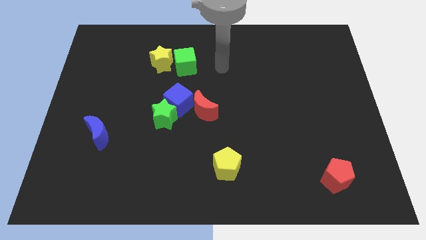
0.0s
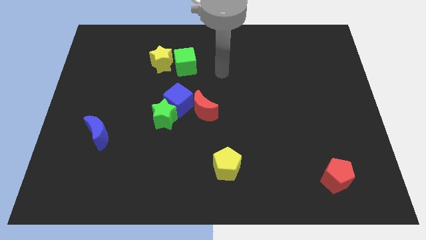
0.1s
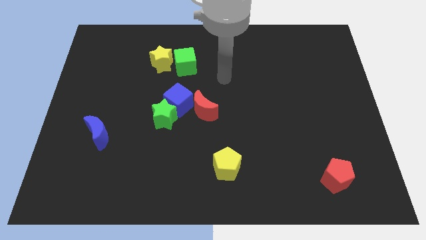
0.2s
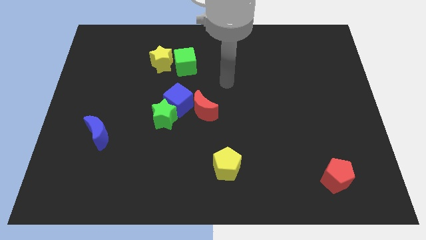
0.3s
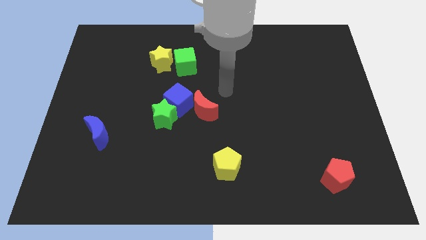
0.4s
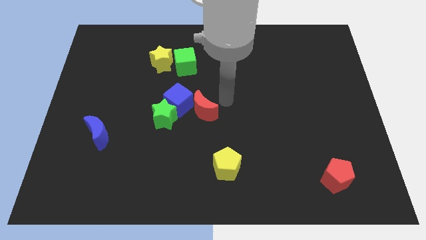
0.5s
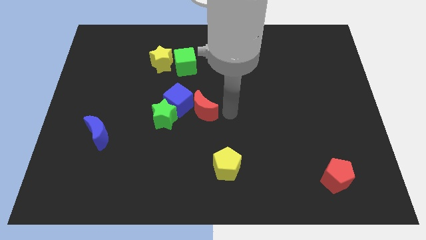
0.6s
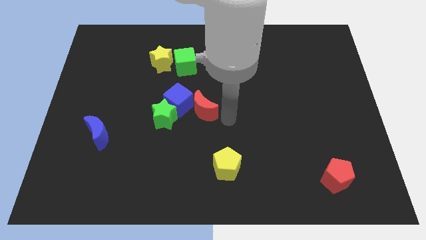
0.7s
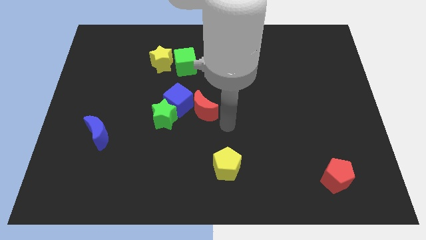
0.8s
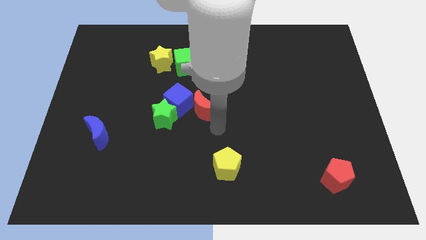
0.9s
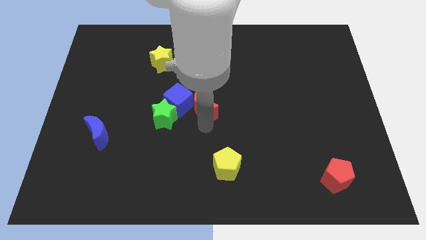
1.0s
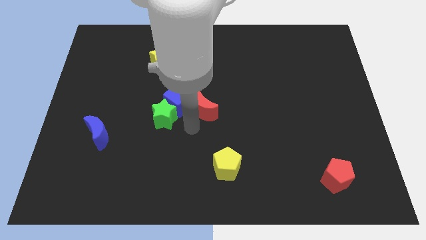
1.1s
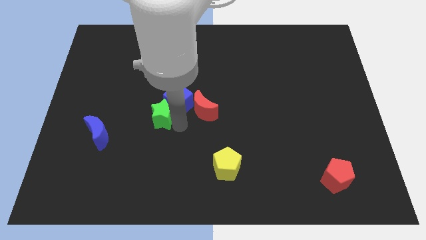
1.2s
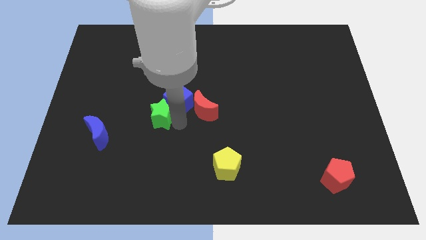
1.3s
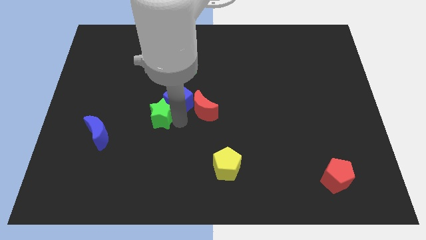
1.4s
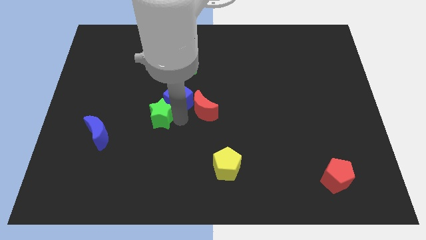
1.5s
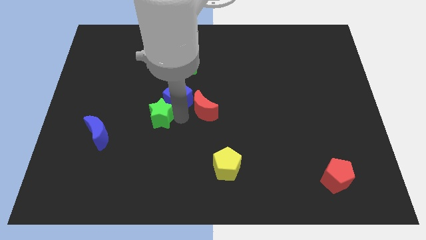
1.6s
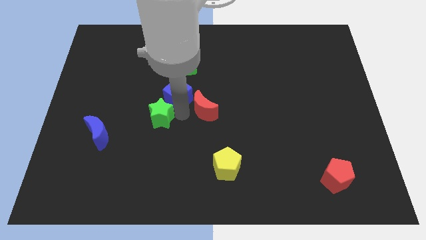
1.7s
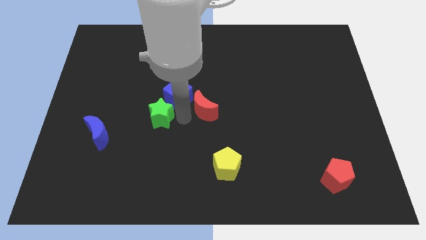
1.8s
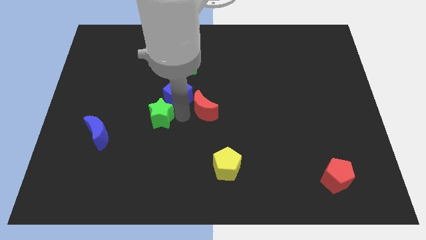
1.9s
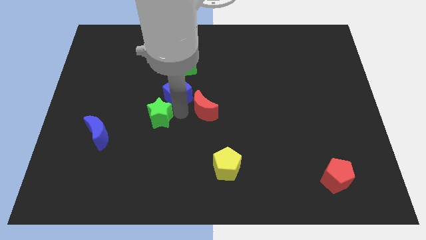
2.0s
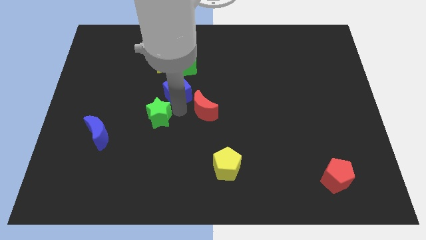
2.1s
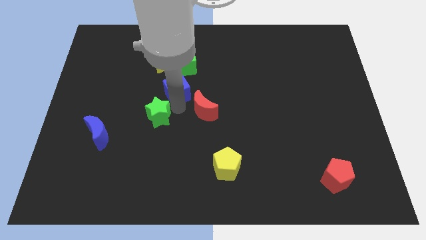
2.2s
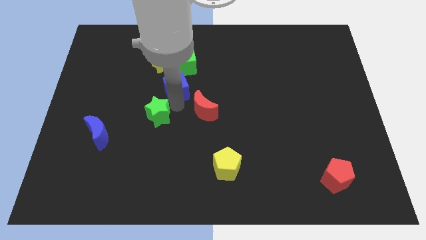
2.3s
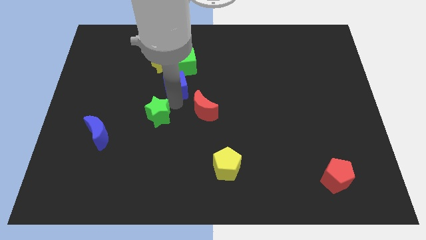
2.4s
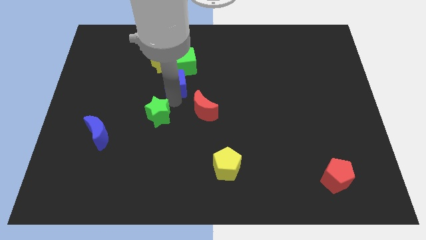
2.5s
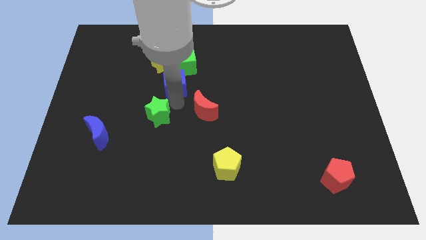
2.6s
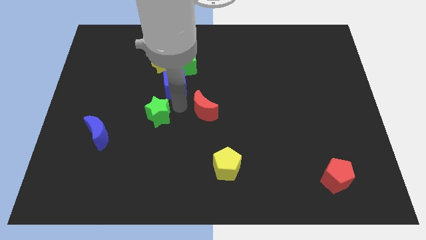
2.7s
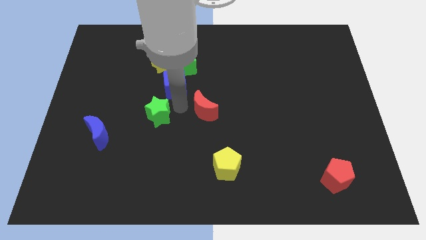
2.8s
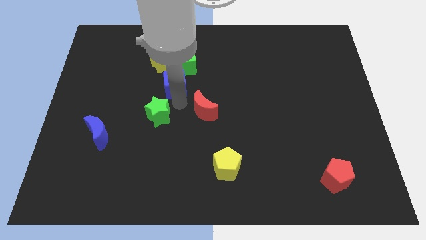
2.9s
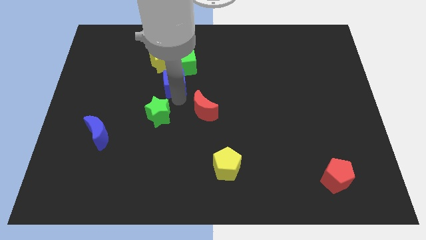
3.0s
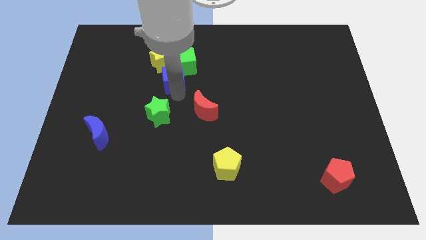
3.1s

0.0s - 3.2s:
pull the blue cube apart from the green star and red moon

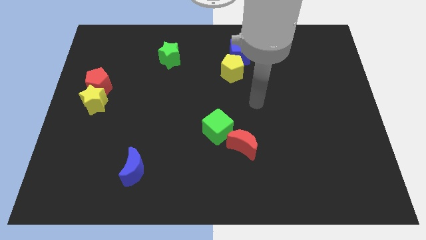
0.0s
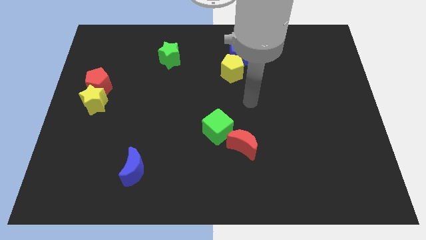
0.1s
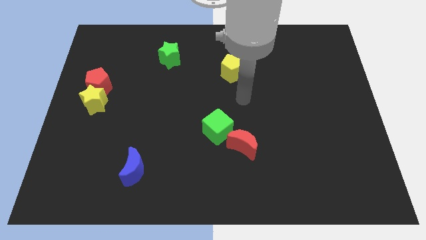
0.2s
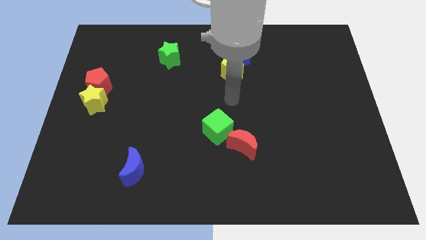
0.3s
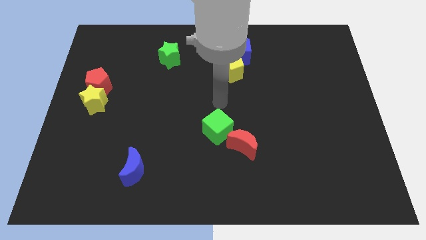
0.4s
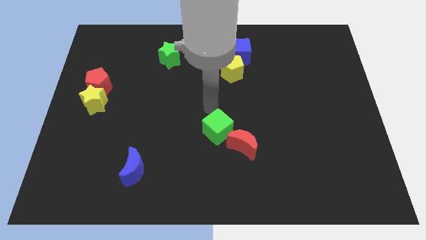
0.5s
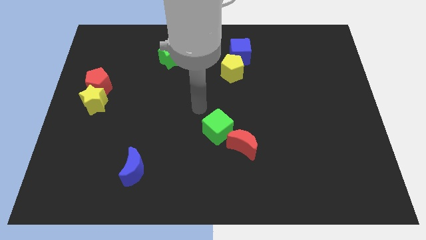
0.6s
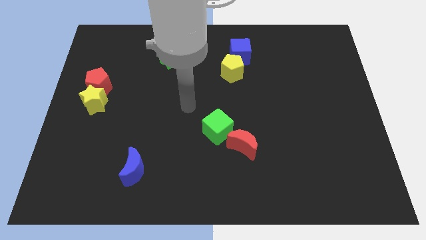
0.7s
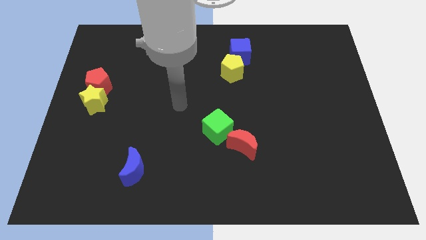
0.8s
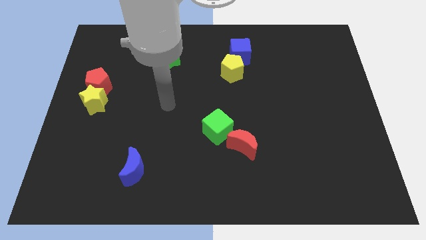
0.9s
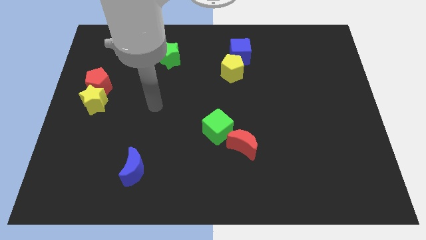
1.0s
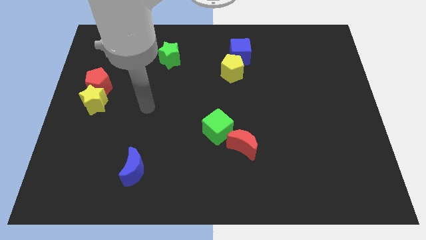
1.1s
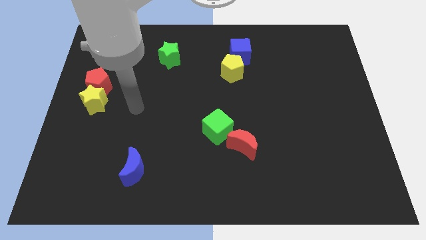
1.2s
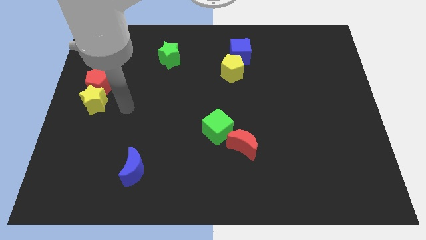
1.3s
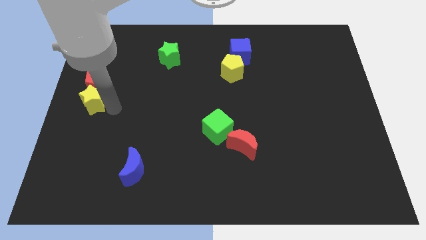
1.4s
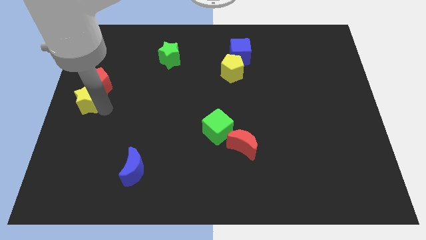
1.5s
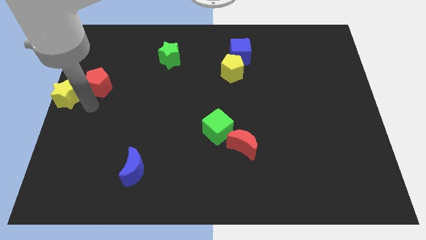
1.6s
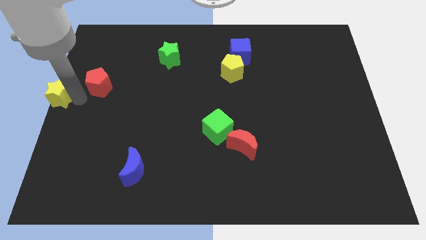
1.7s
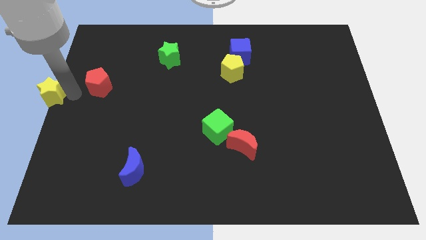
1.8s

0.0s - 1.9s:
move the red pentagon away from the yellow star

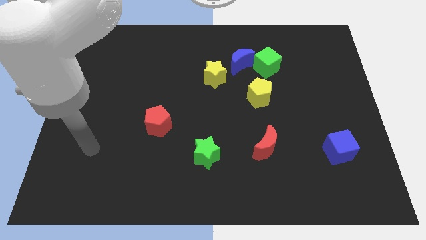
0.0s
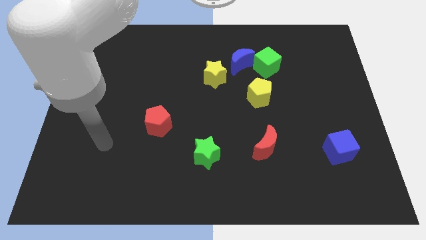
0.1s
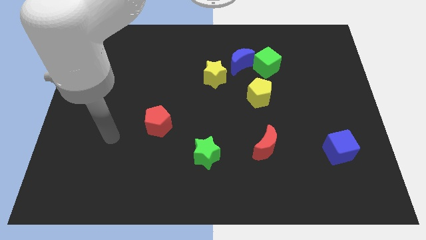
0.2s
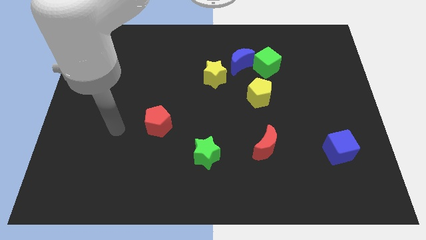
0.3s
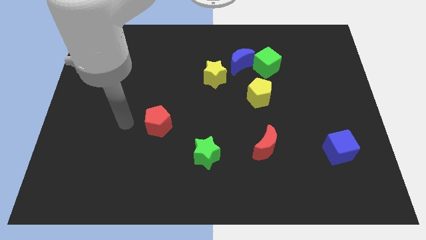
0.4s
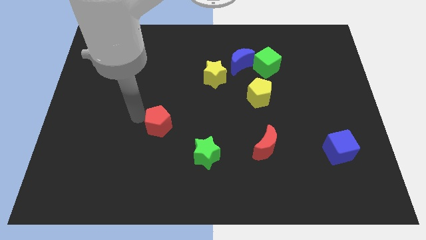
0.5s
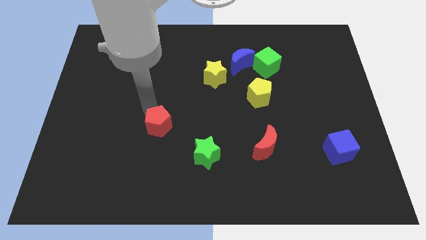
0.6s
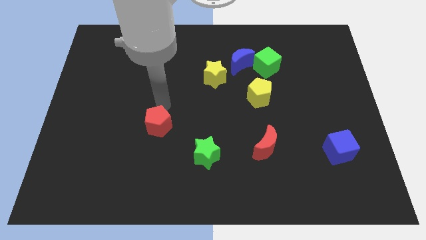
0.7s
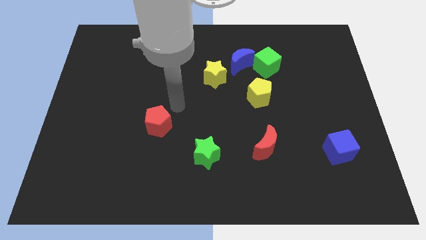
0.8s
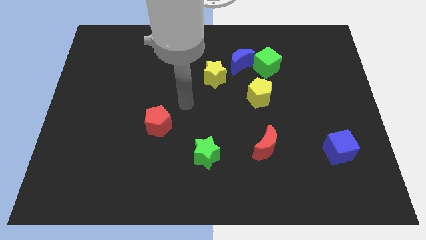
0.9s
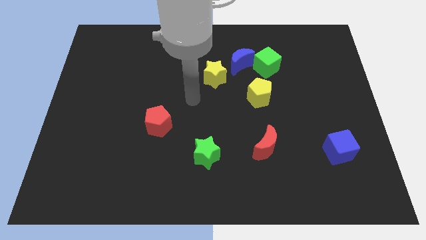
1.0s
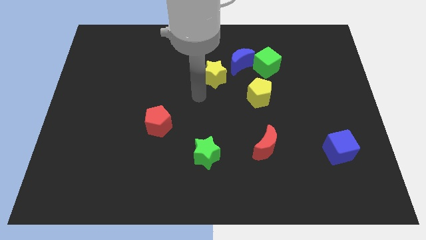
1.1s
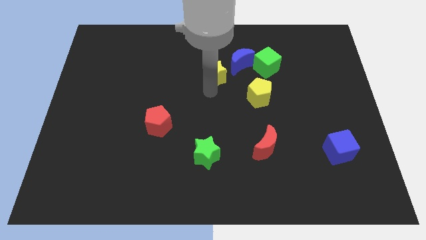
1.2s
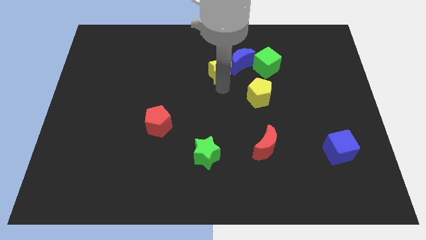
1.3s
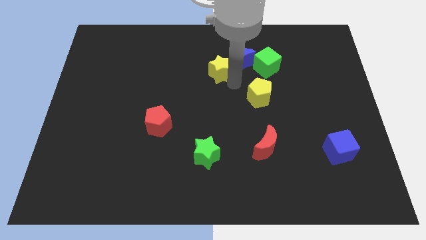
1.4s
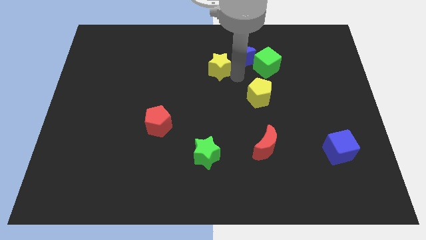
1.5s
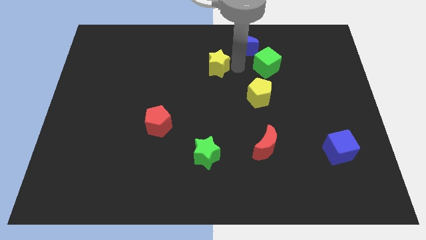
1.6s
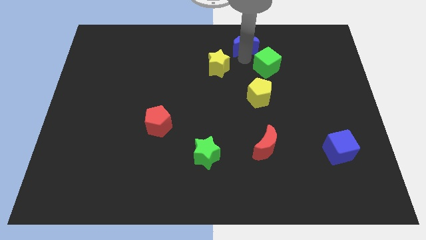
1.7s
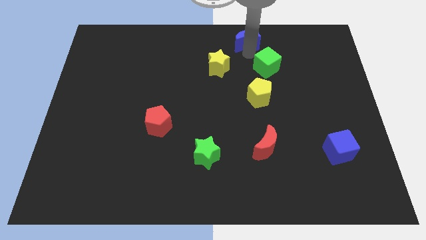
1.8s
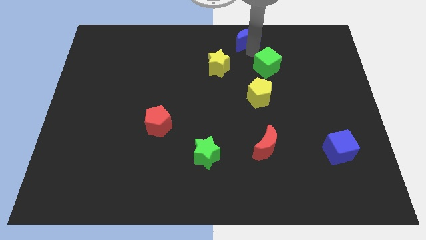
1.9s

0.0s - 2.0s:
move the green cube away from the blue moon

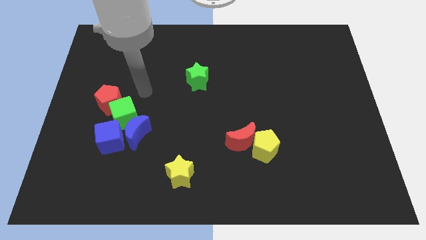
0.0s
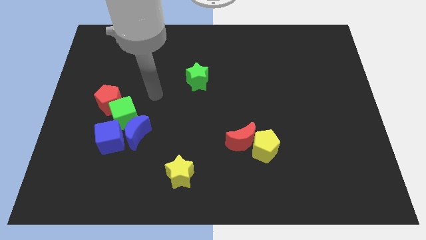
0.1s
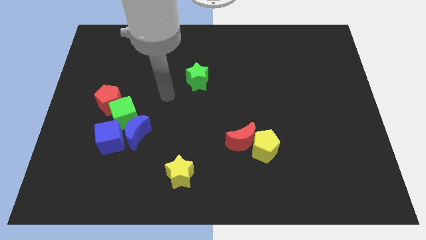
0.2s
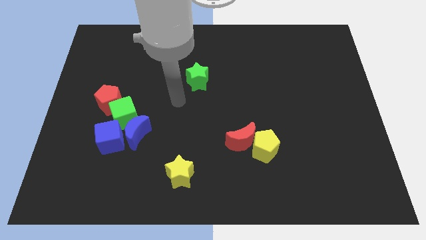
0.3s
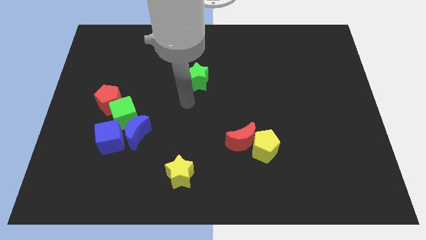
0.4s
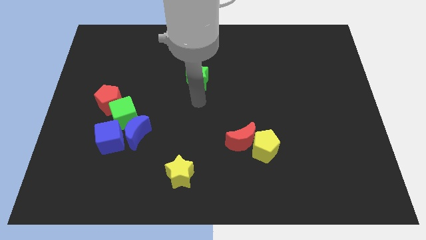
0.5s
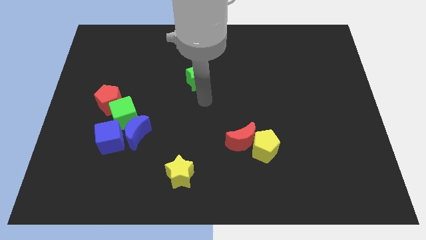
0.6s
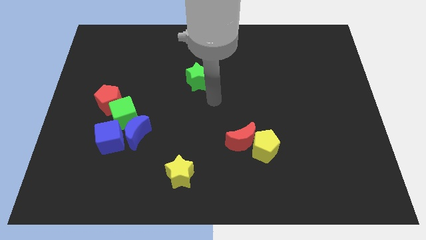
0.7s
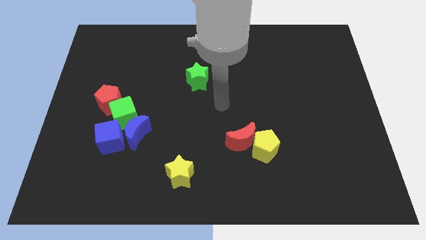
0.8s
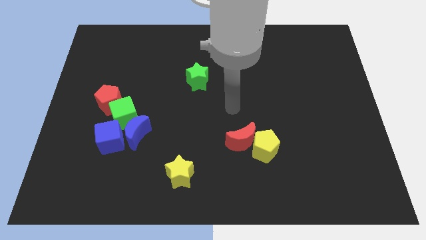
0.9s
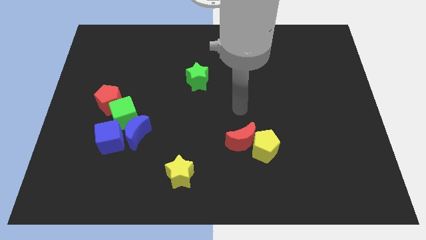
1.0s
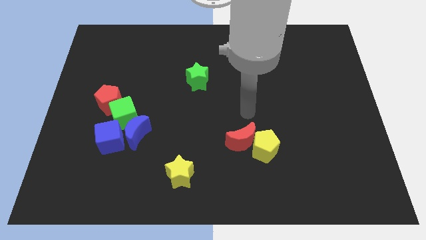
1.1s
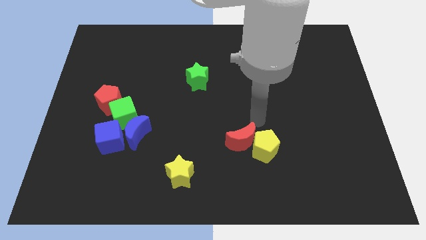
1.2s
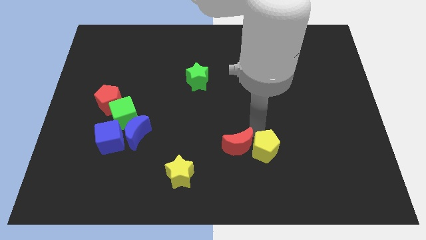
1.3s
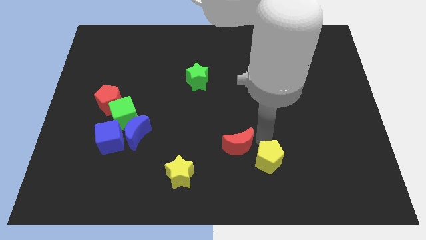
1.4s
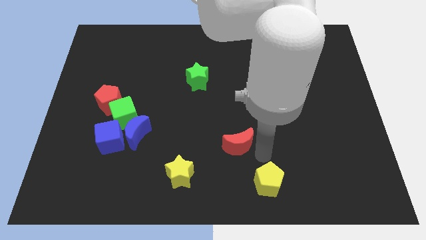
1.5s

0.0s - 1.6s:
move the red moon away from the yellow pentagon

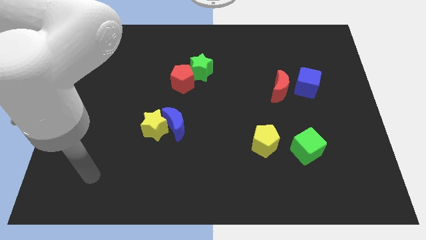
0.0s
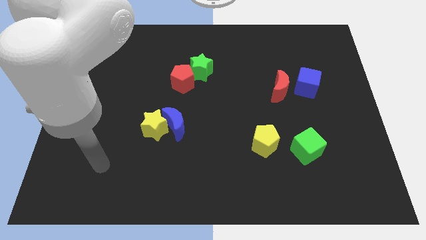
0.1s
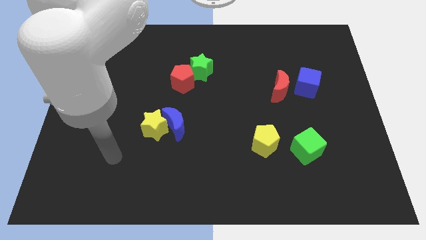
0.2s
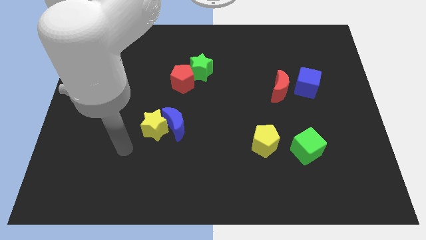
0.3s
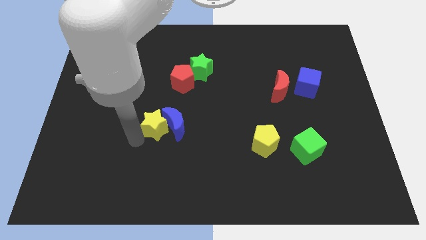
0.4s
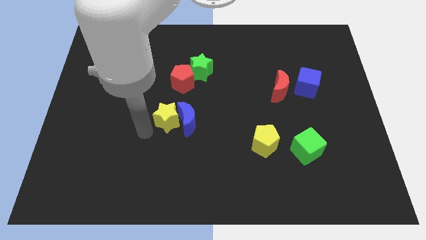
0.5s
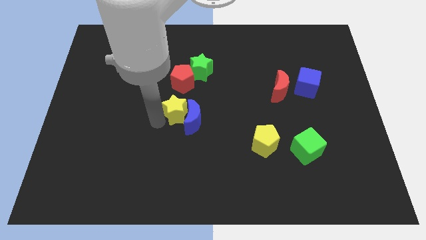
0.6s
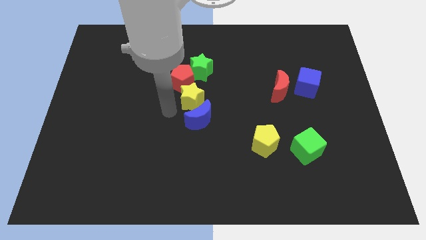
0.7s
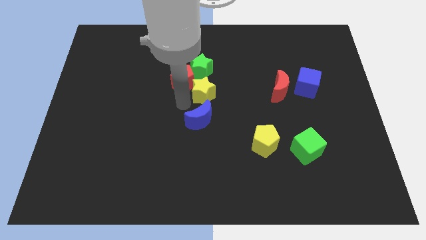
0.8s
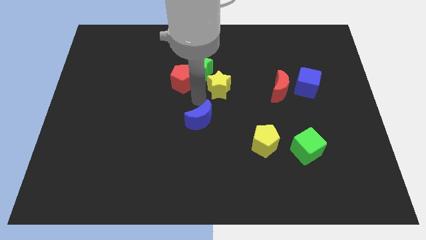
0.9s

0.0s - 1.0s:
pull the blue moon apart from the yellow star
